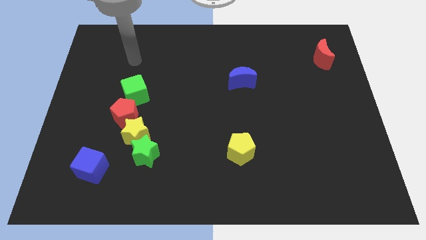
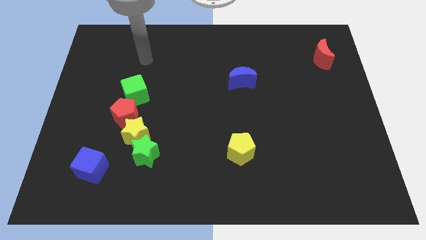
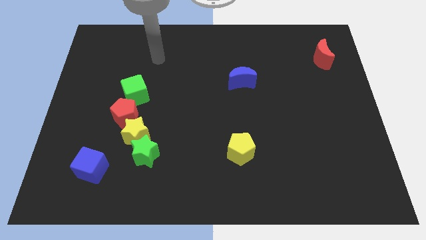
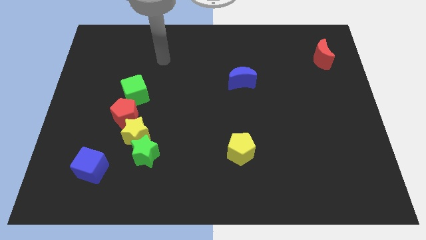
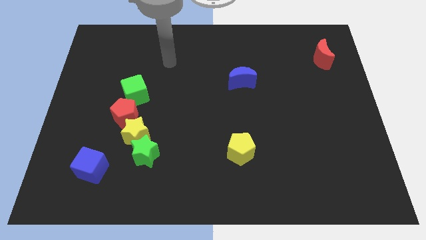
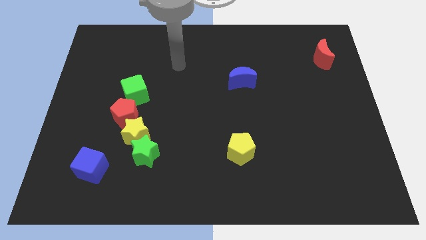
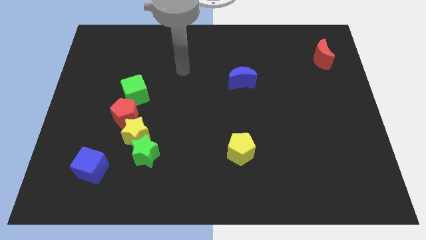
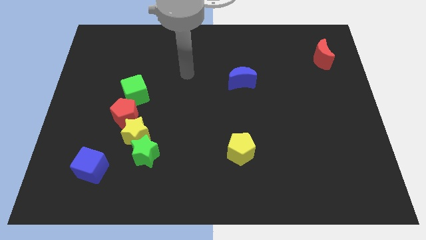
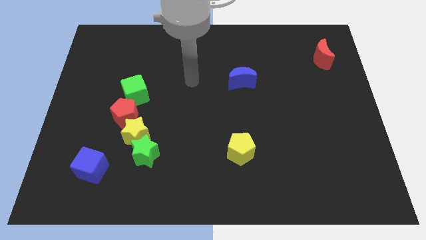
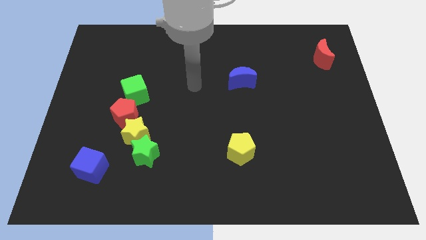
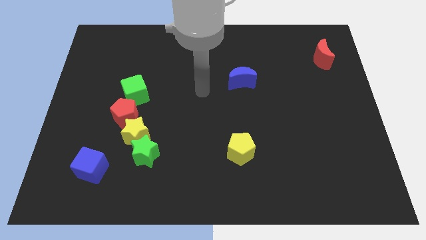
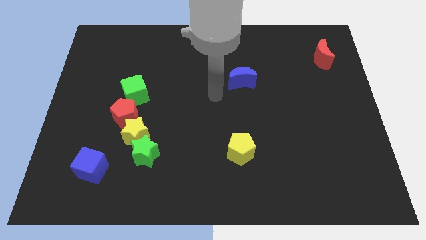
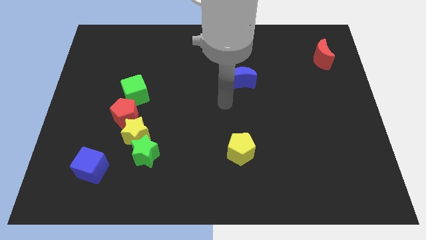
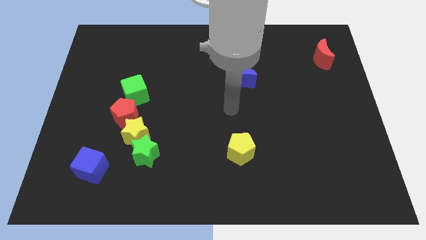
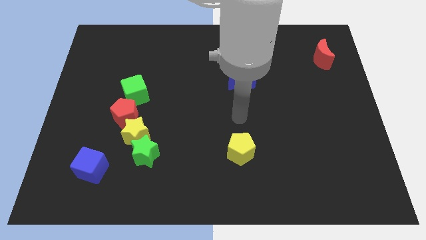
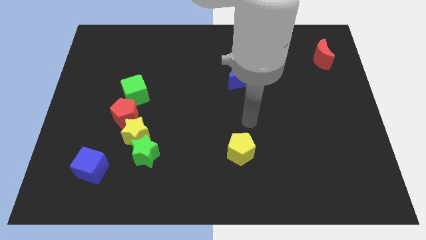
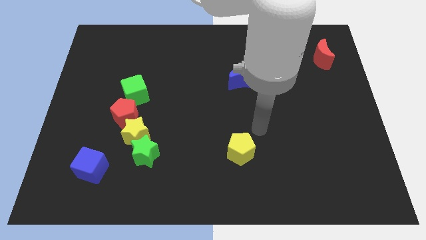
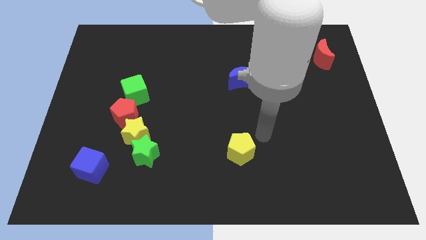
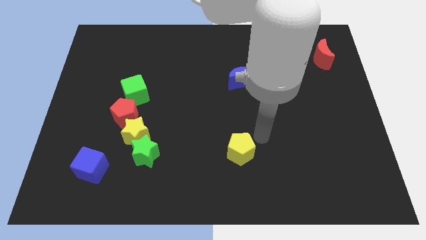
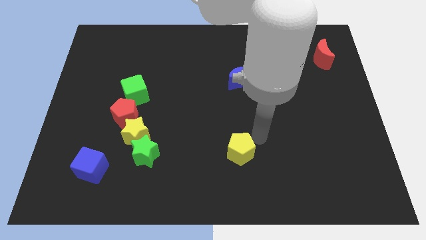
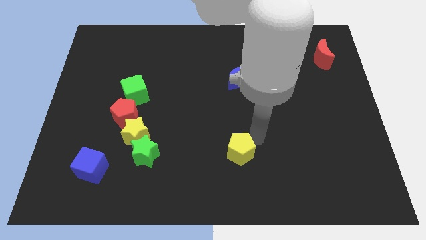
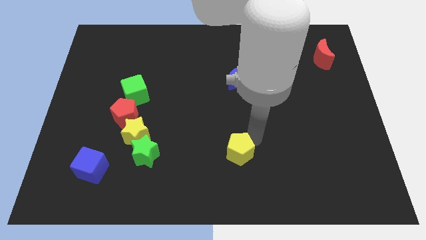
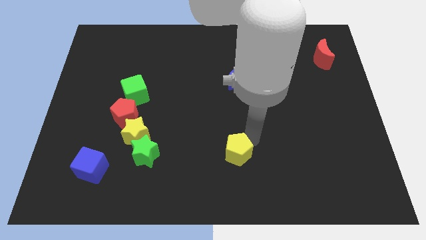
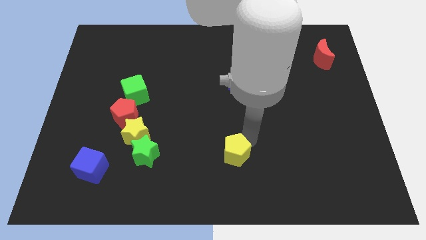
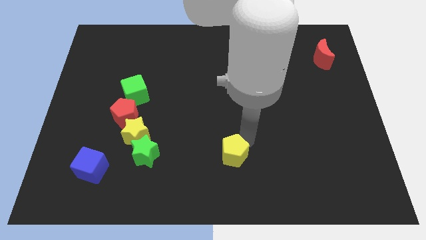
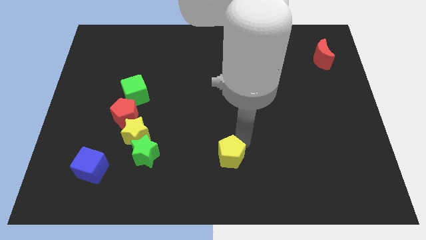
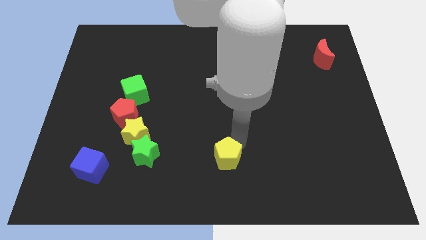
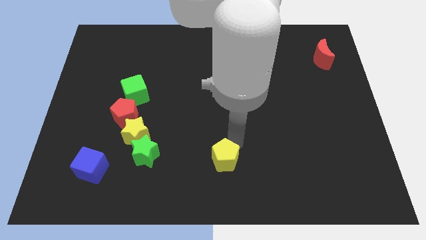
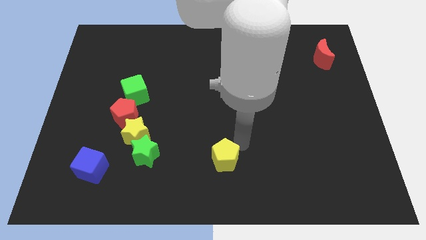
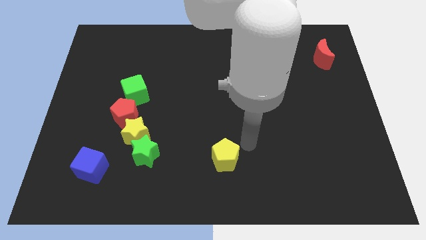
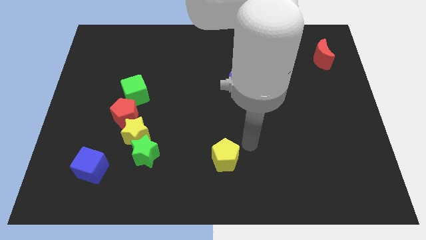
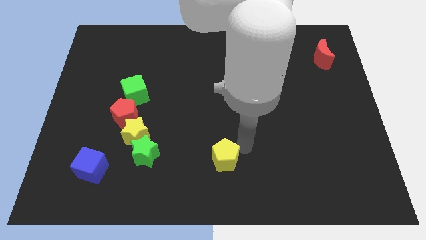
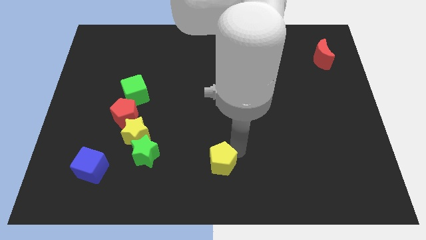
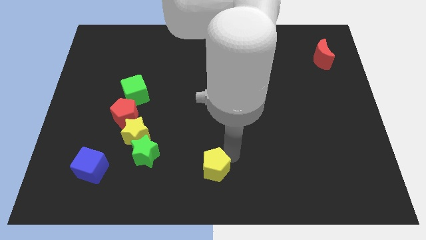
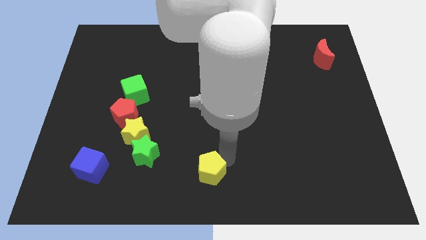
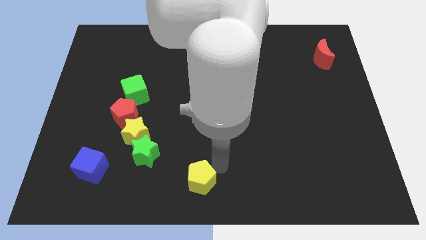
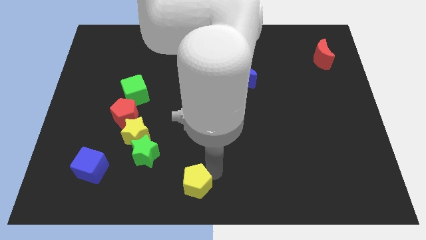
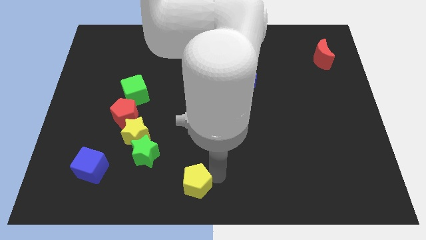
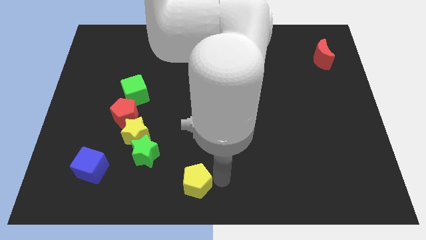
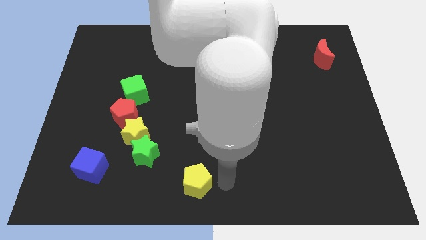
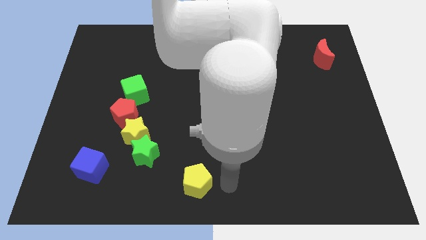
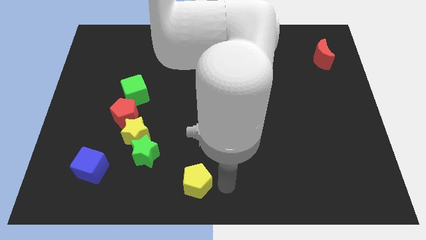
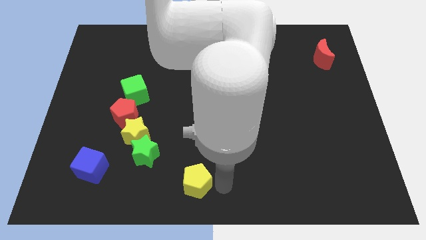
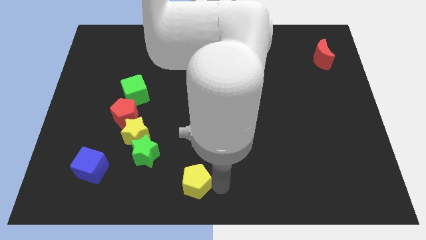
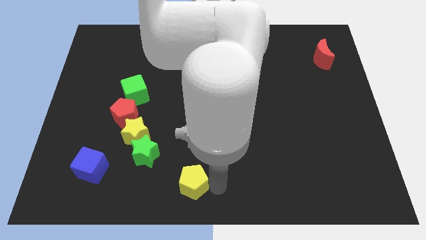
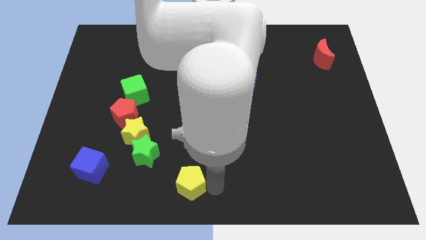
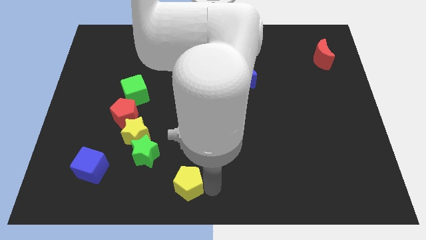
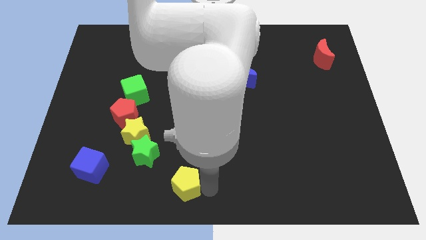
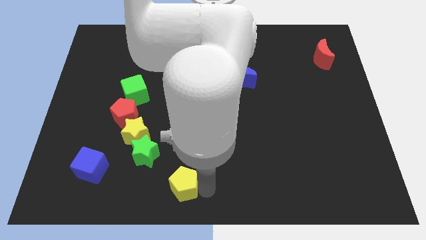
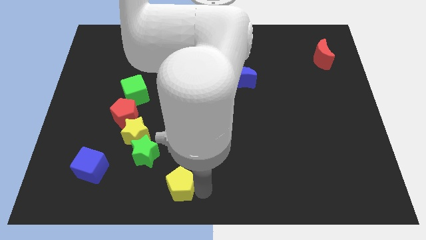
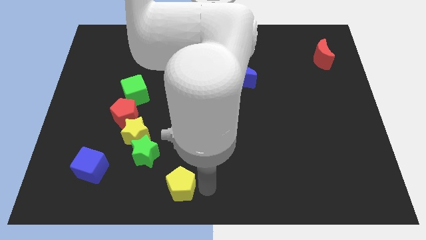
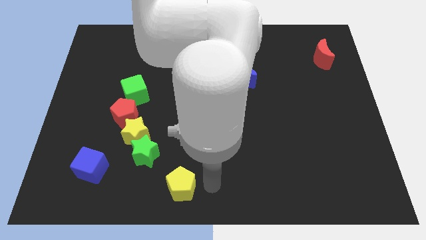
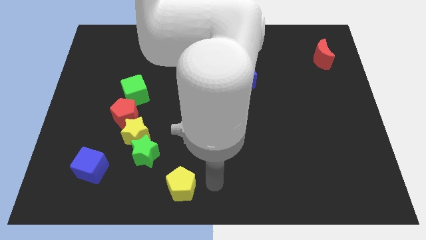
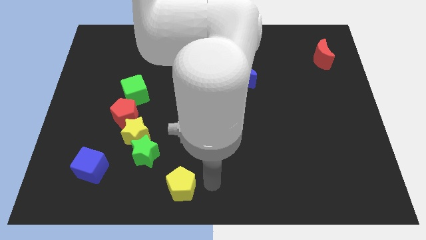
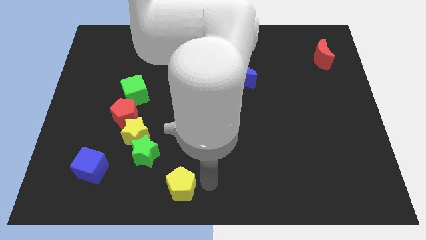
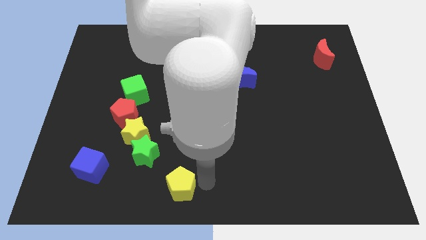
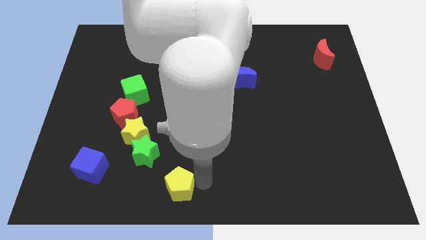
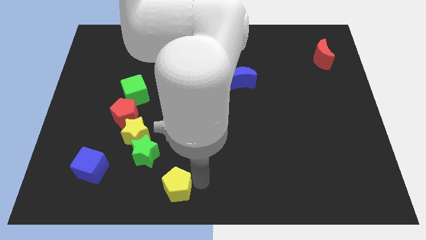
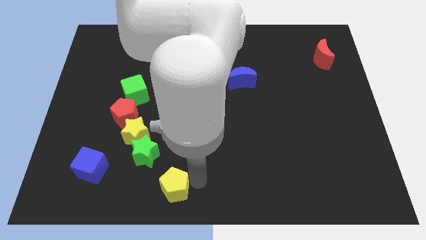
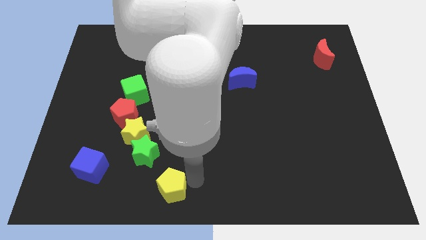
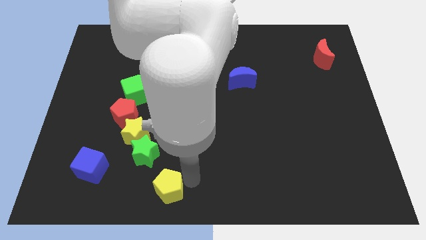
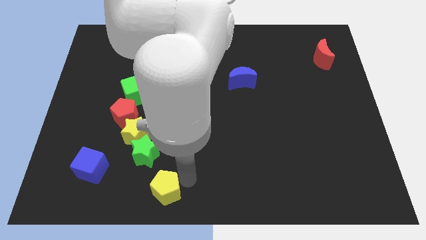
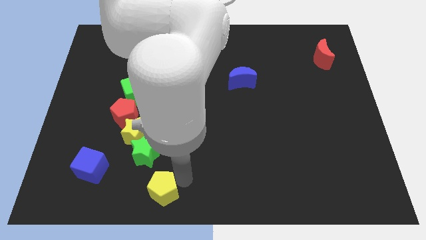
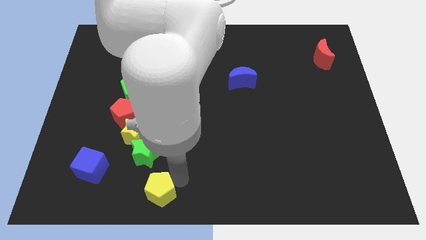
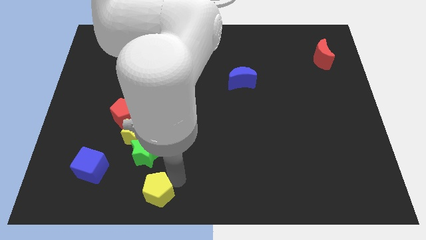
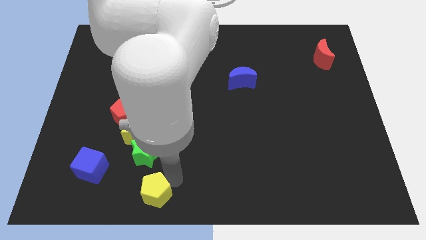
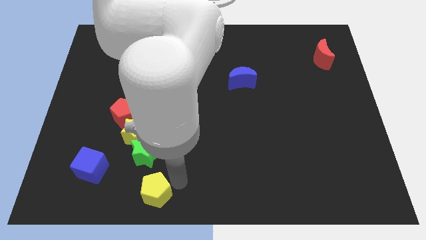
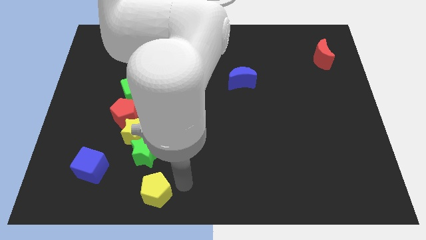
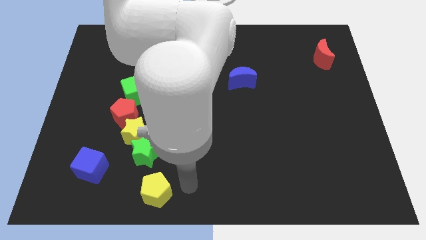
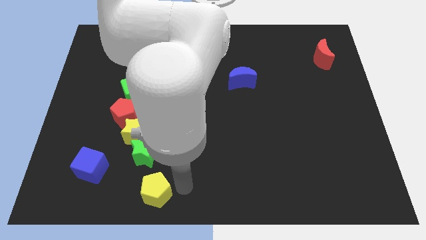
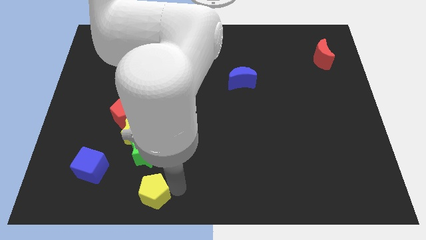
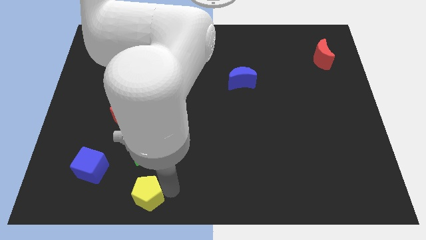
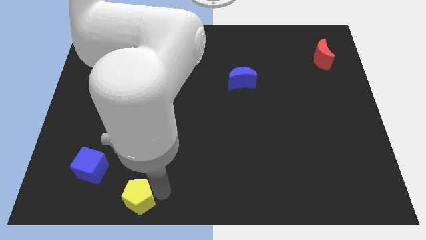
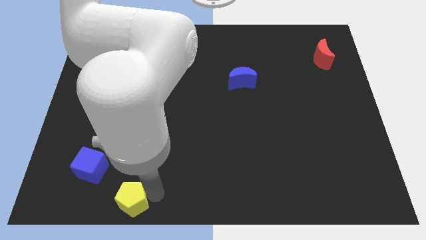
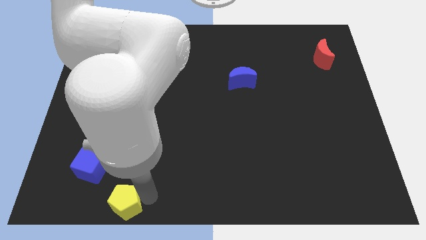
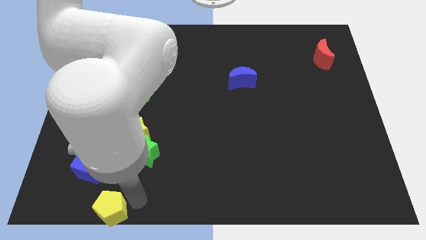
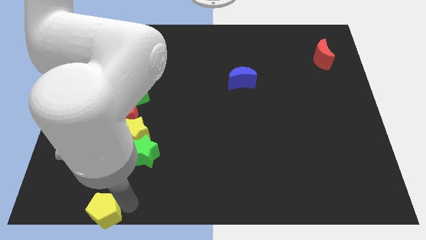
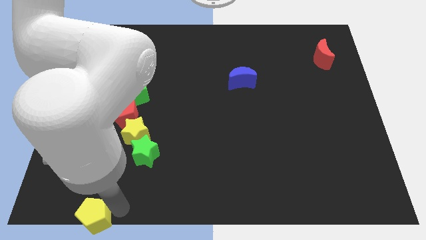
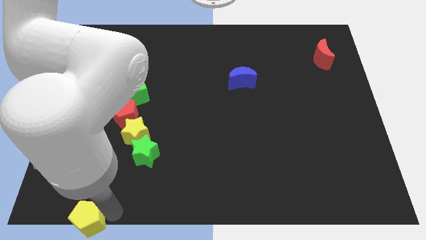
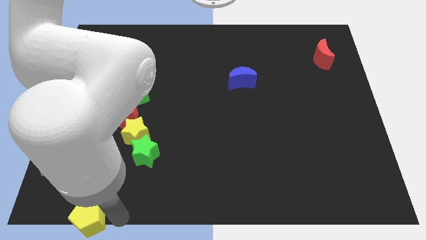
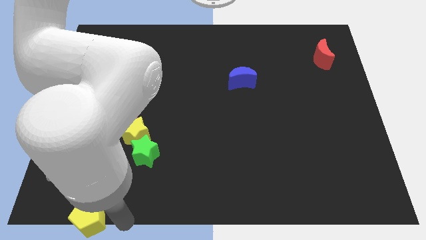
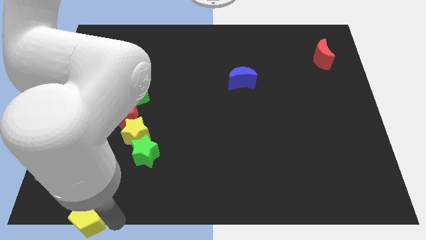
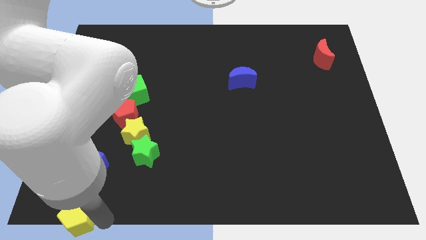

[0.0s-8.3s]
move the yellow pentagon to the bottom left corner
